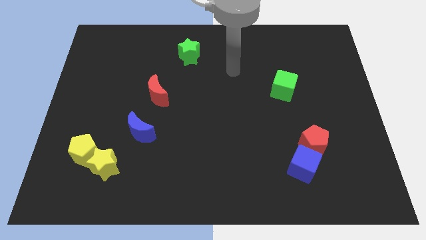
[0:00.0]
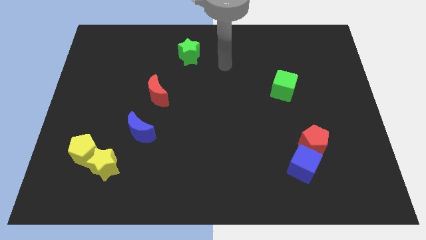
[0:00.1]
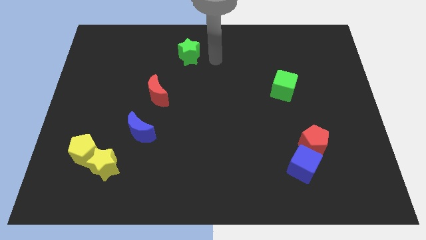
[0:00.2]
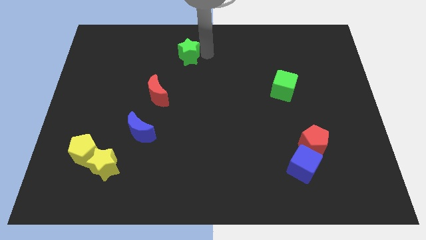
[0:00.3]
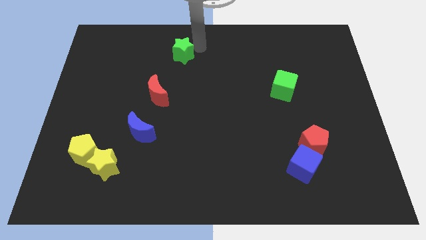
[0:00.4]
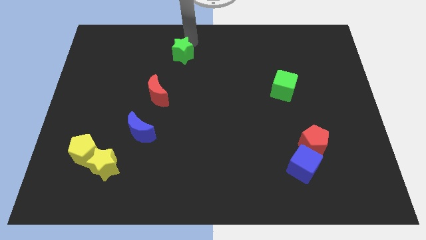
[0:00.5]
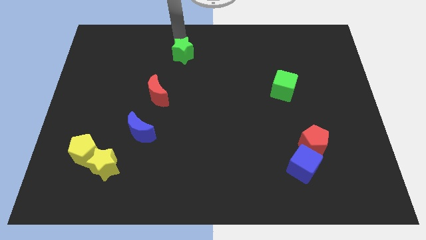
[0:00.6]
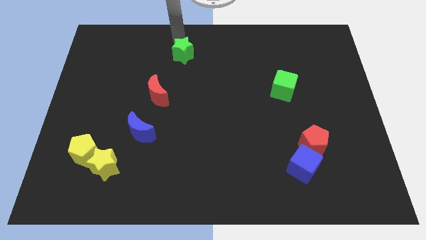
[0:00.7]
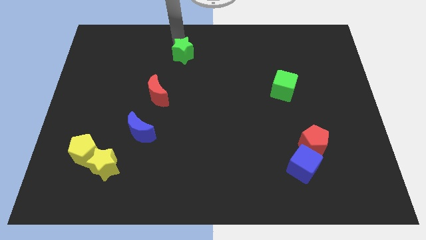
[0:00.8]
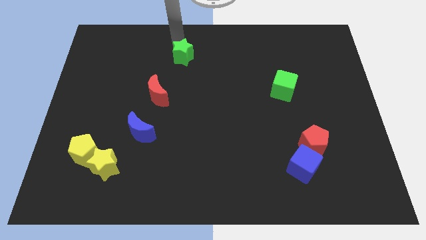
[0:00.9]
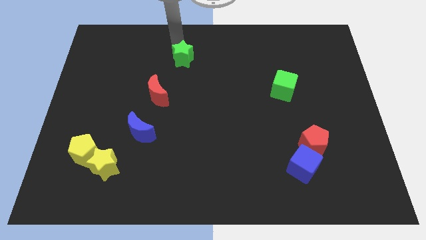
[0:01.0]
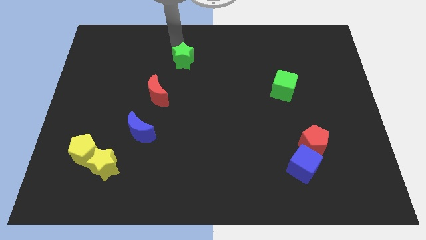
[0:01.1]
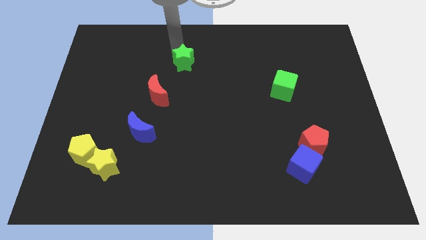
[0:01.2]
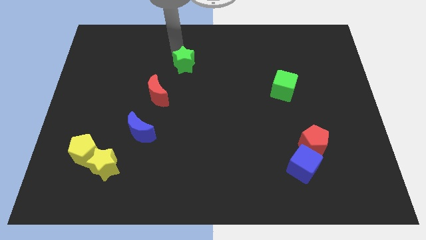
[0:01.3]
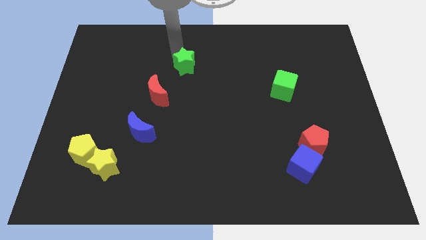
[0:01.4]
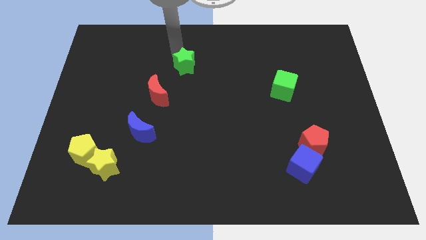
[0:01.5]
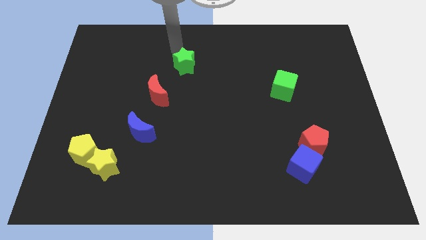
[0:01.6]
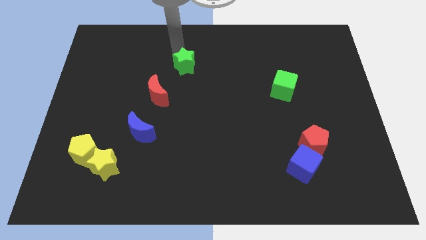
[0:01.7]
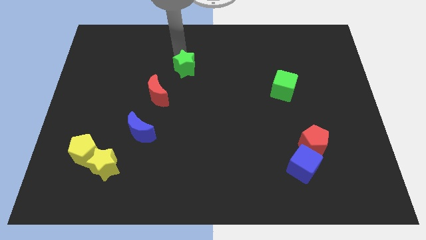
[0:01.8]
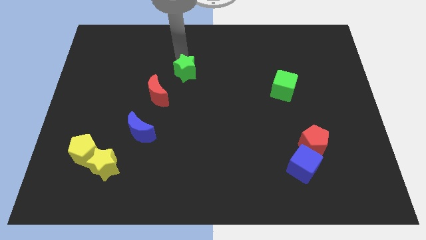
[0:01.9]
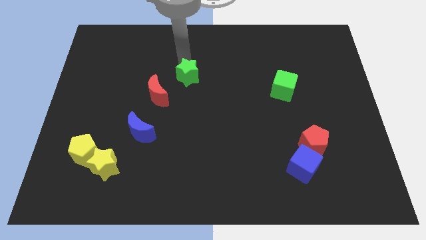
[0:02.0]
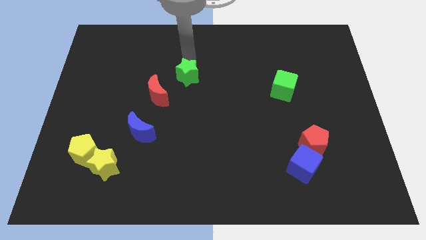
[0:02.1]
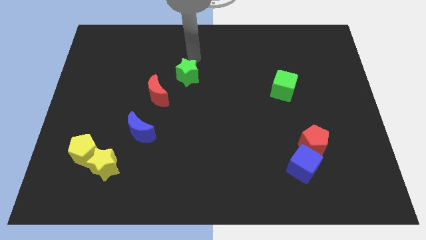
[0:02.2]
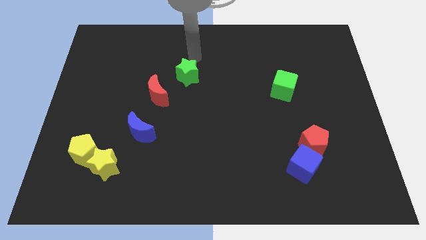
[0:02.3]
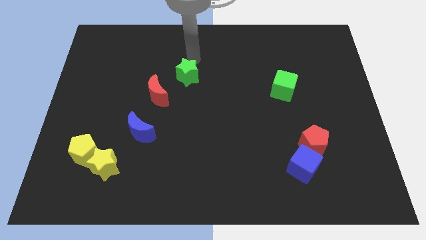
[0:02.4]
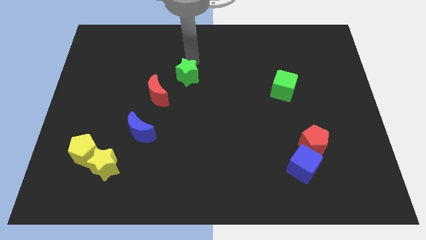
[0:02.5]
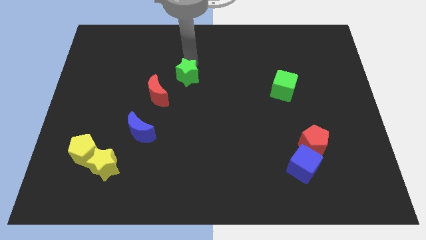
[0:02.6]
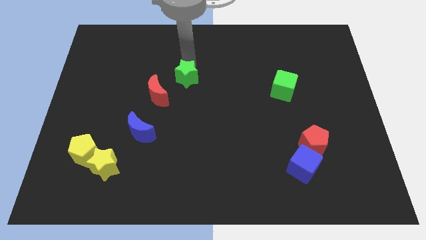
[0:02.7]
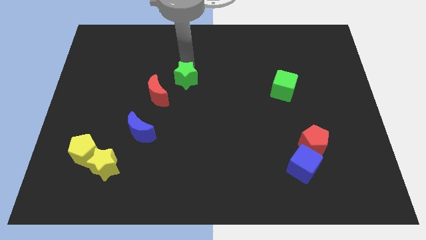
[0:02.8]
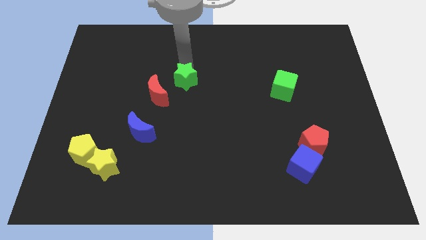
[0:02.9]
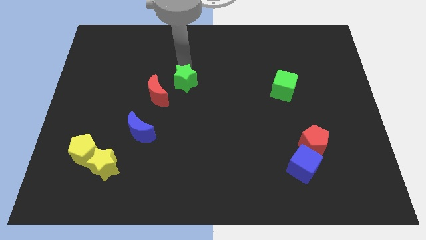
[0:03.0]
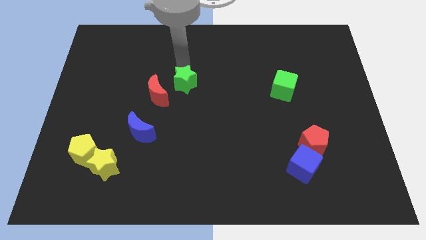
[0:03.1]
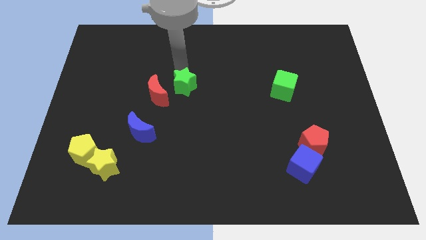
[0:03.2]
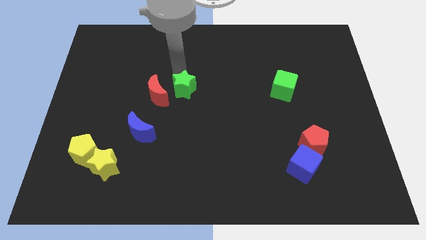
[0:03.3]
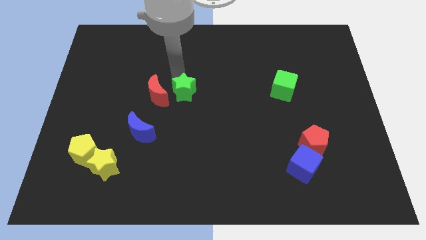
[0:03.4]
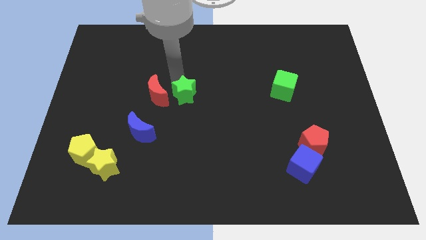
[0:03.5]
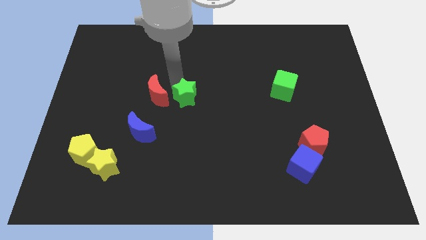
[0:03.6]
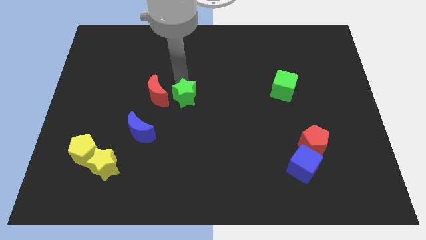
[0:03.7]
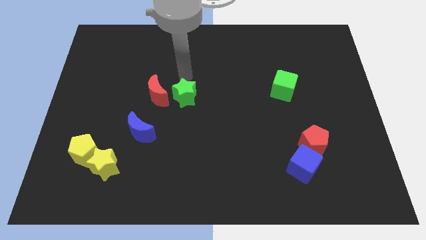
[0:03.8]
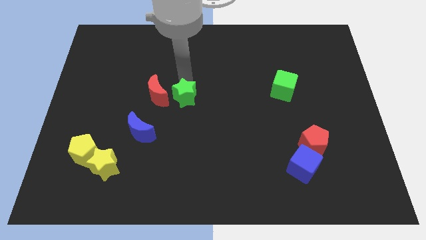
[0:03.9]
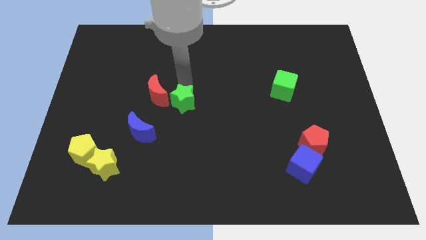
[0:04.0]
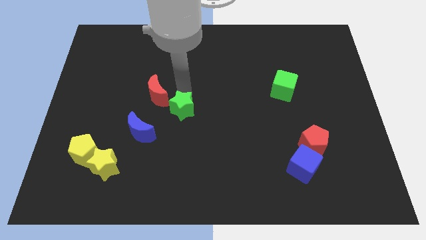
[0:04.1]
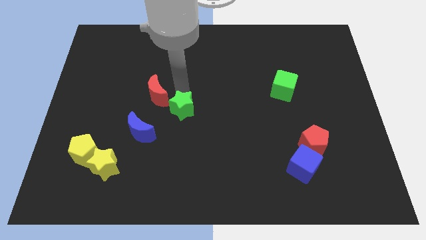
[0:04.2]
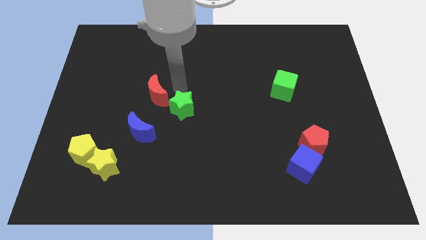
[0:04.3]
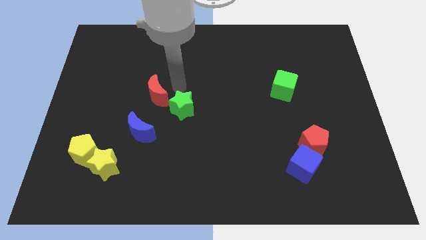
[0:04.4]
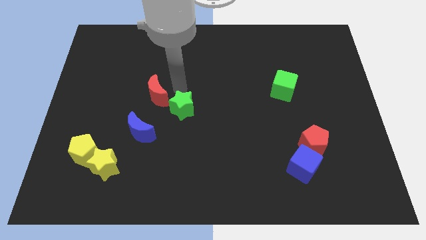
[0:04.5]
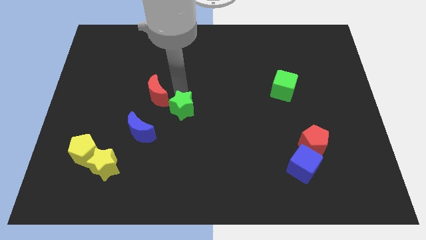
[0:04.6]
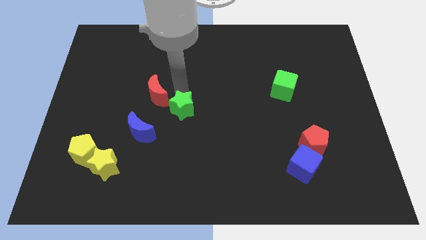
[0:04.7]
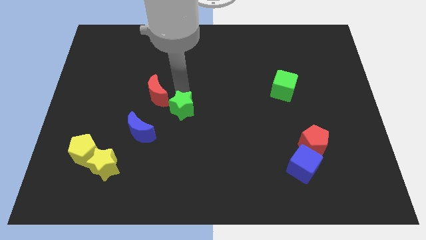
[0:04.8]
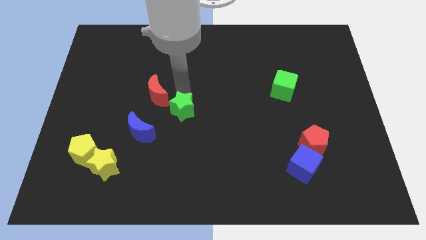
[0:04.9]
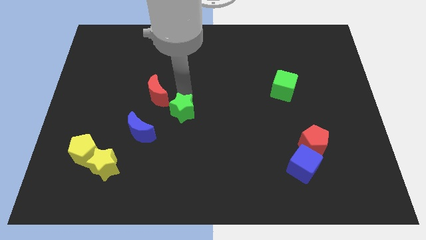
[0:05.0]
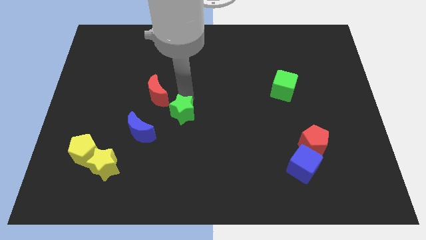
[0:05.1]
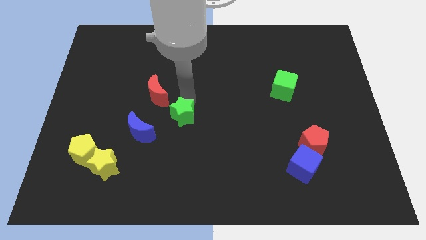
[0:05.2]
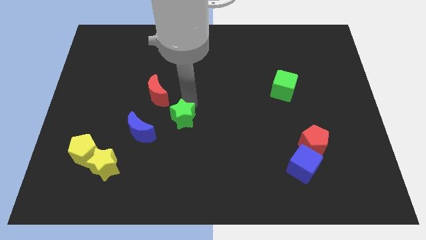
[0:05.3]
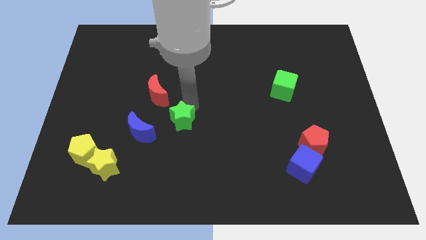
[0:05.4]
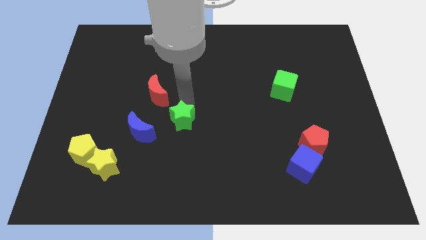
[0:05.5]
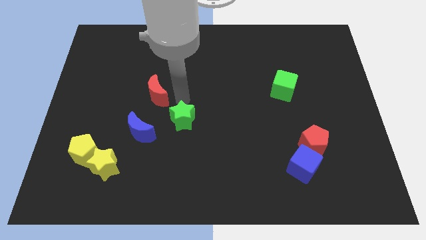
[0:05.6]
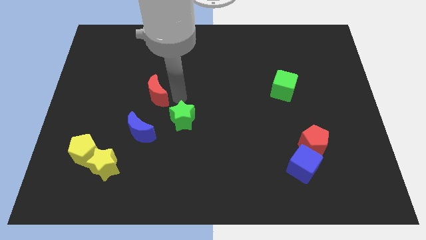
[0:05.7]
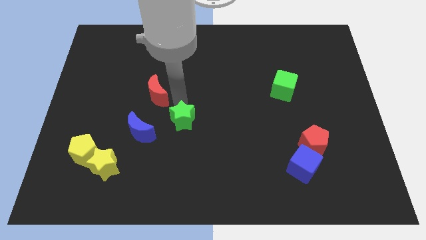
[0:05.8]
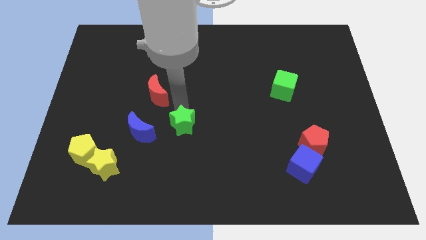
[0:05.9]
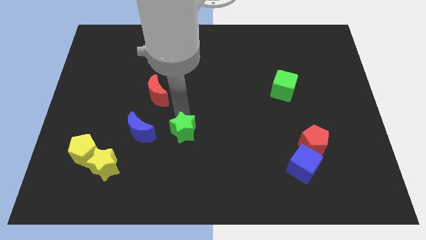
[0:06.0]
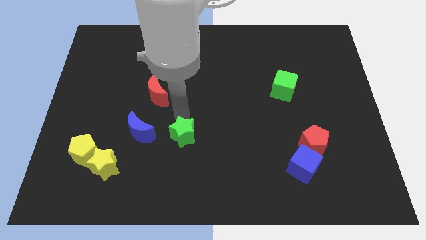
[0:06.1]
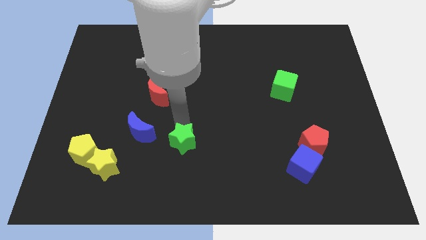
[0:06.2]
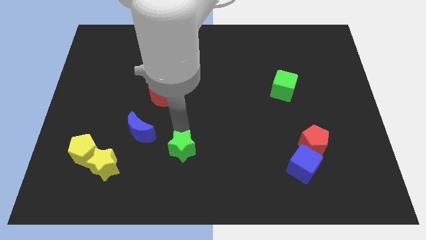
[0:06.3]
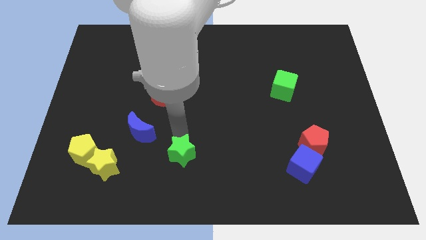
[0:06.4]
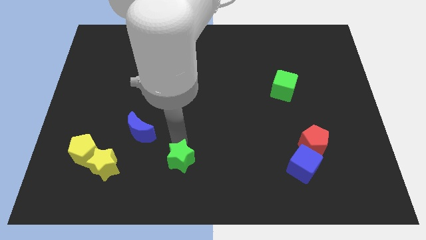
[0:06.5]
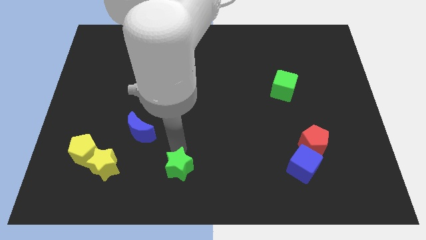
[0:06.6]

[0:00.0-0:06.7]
move the green star to the bottom
